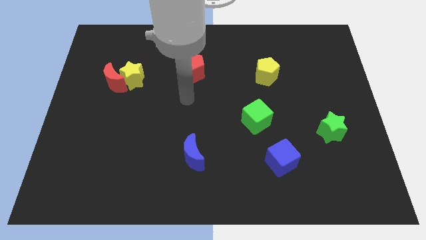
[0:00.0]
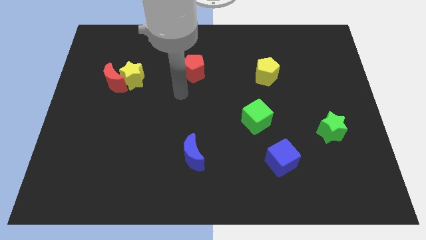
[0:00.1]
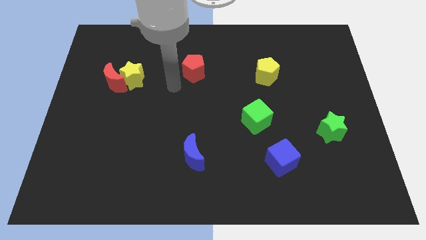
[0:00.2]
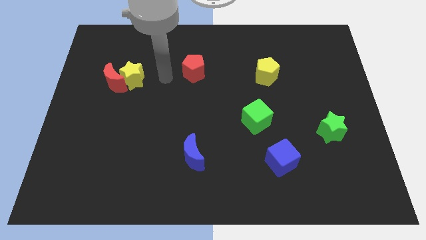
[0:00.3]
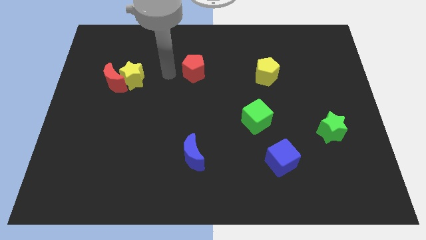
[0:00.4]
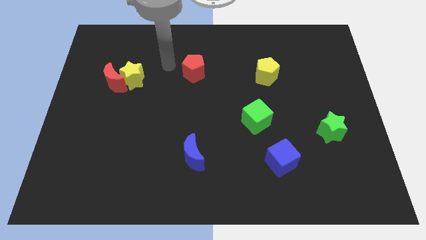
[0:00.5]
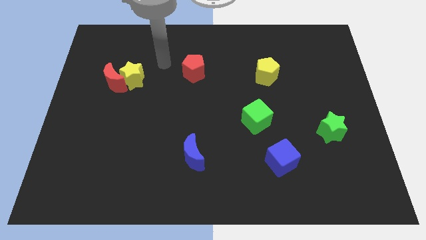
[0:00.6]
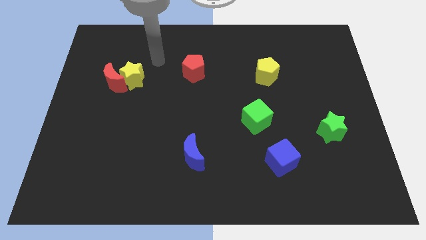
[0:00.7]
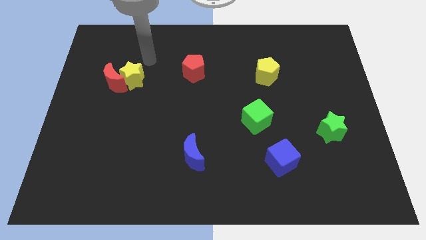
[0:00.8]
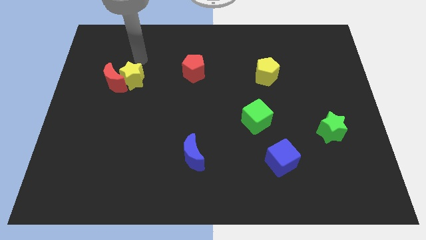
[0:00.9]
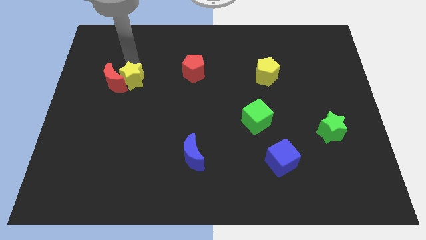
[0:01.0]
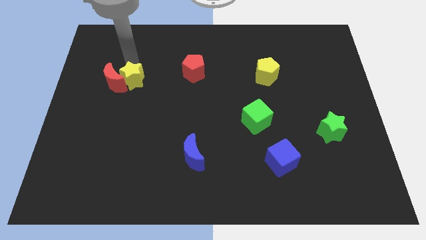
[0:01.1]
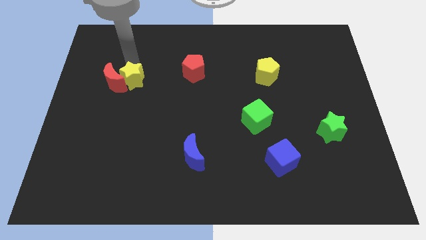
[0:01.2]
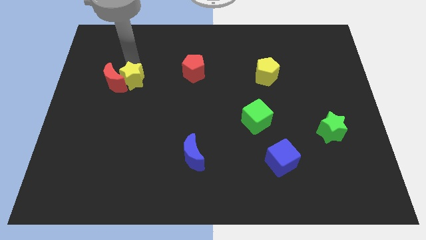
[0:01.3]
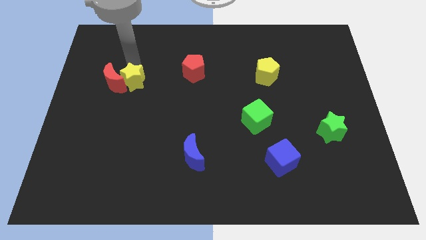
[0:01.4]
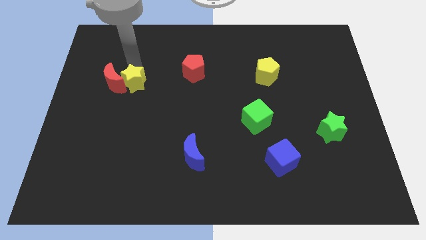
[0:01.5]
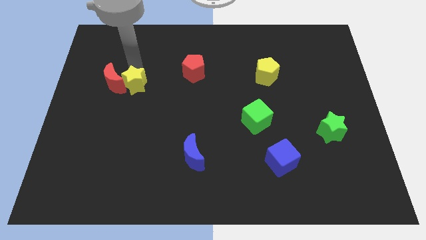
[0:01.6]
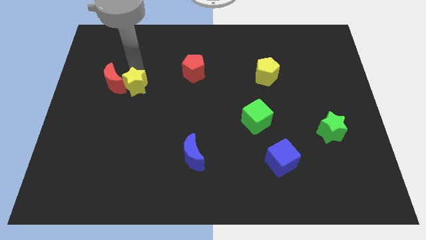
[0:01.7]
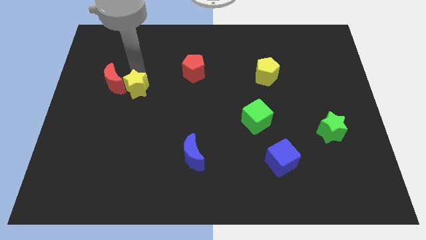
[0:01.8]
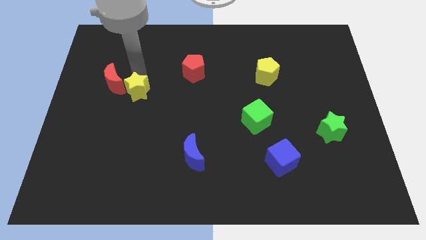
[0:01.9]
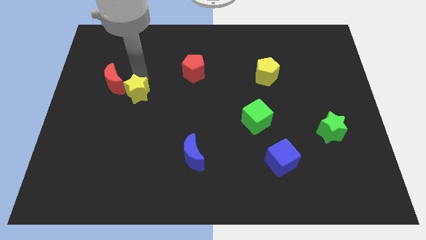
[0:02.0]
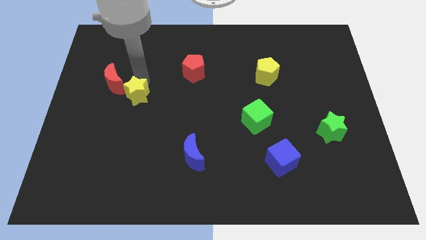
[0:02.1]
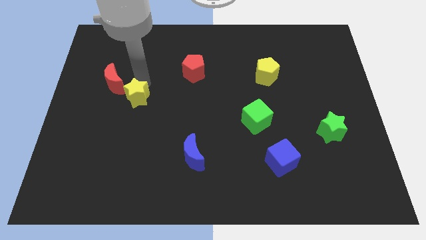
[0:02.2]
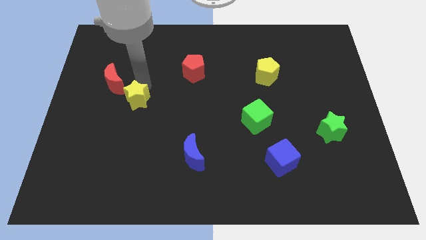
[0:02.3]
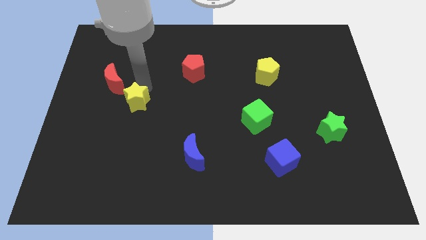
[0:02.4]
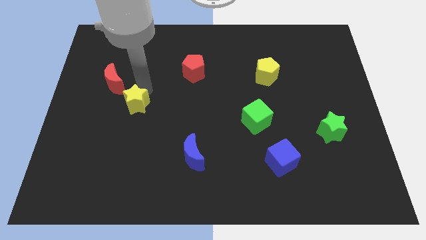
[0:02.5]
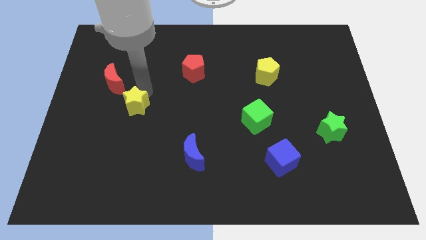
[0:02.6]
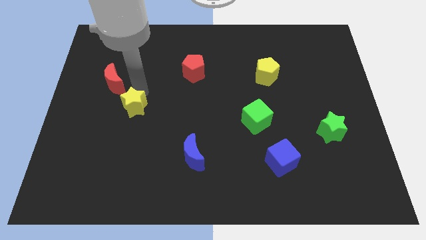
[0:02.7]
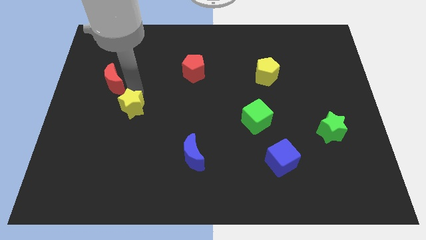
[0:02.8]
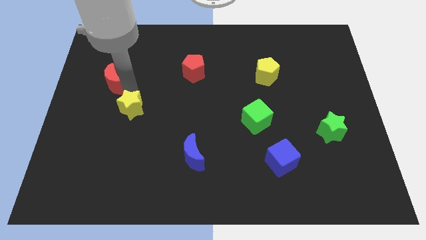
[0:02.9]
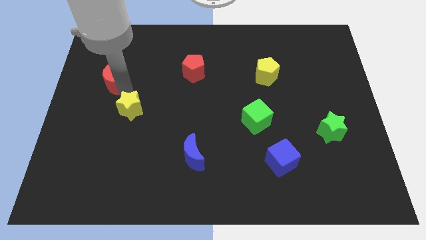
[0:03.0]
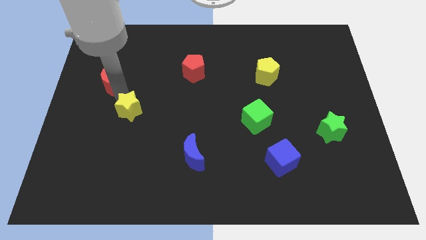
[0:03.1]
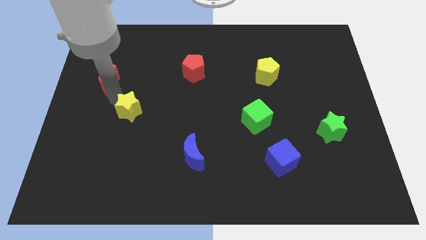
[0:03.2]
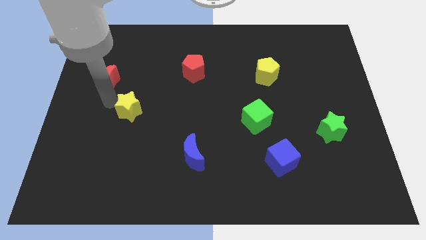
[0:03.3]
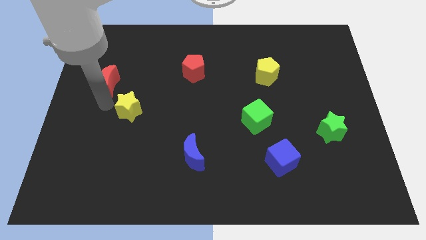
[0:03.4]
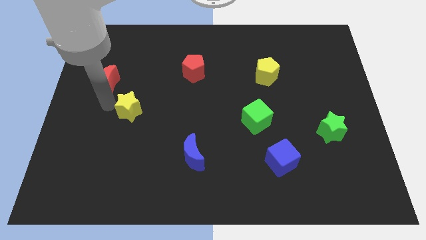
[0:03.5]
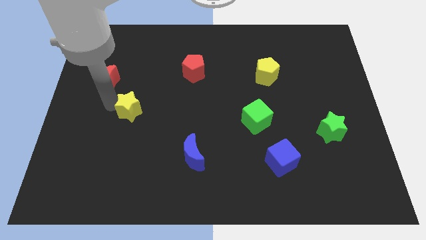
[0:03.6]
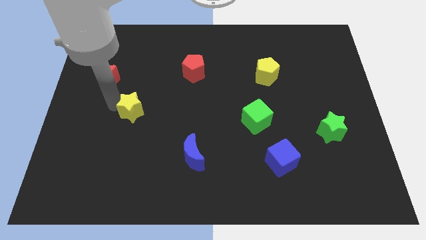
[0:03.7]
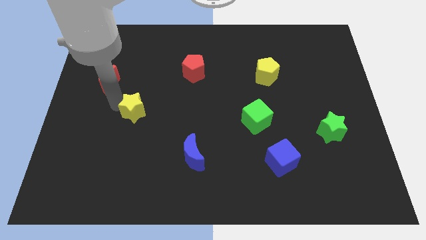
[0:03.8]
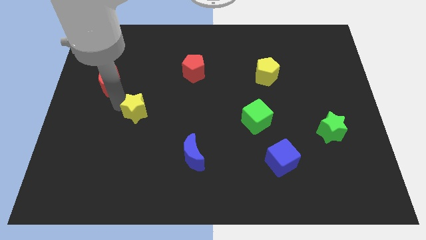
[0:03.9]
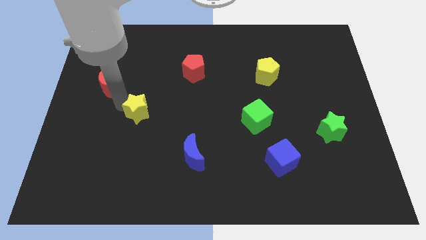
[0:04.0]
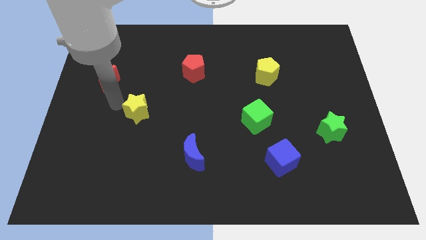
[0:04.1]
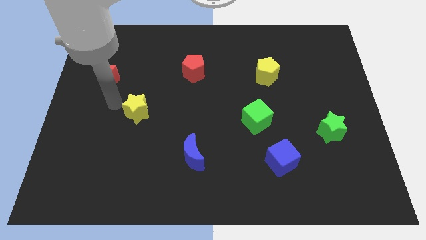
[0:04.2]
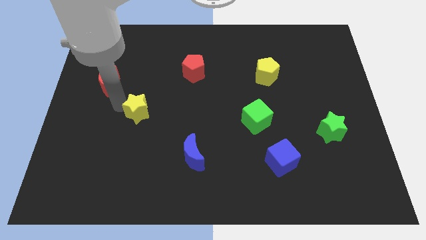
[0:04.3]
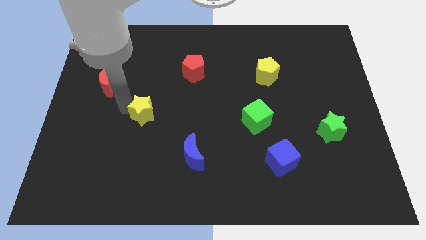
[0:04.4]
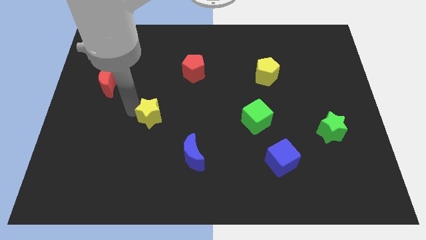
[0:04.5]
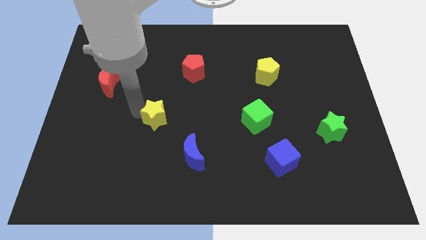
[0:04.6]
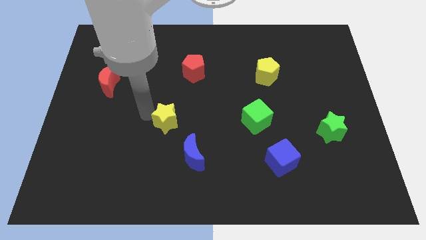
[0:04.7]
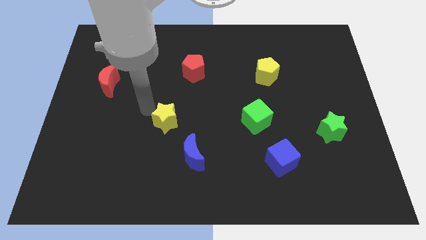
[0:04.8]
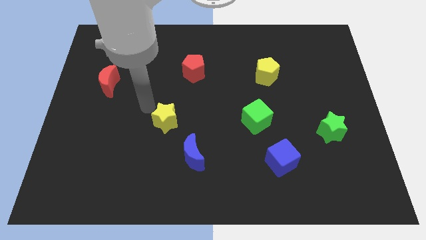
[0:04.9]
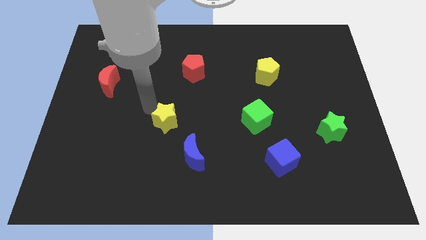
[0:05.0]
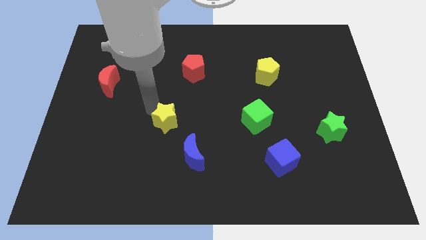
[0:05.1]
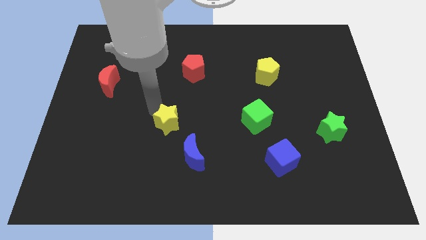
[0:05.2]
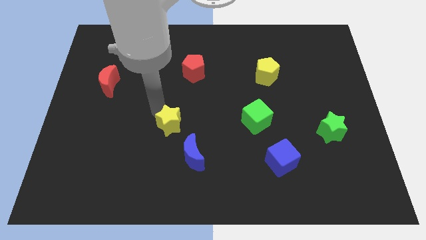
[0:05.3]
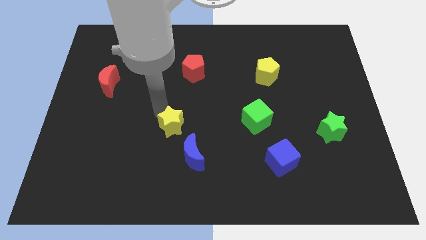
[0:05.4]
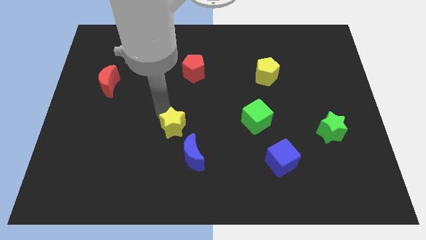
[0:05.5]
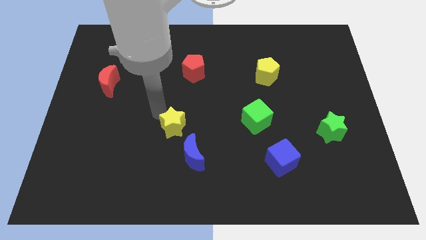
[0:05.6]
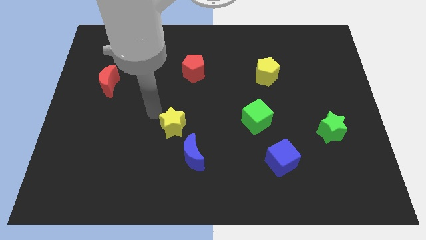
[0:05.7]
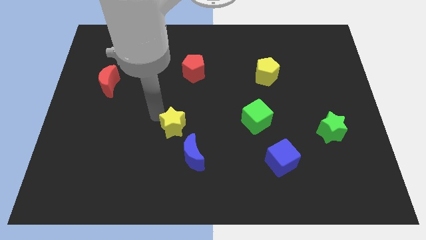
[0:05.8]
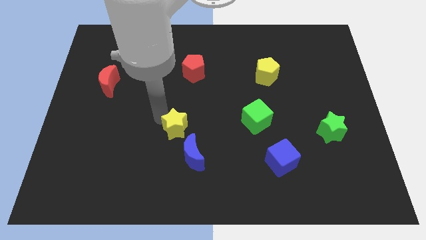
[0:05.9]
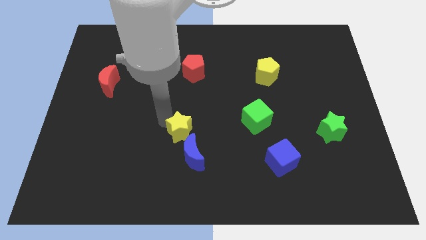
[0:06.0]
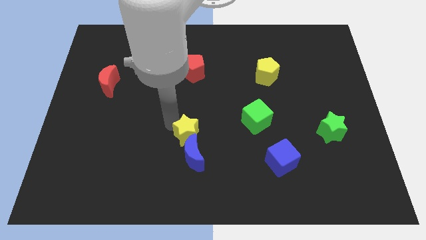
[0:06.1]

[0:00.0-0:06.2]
put the yellow star to the blue moon
